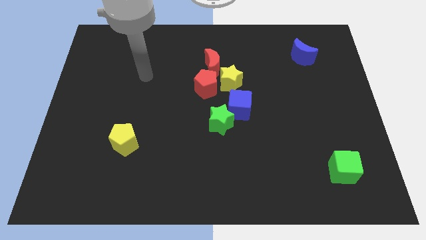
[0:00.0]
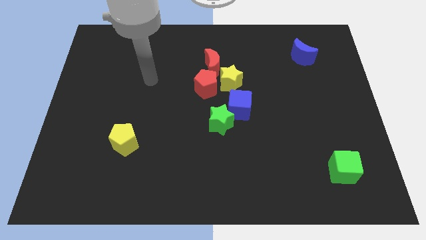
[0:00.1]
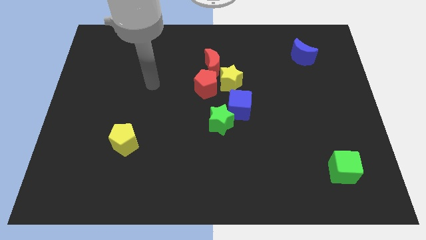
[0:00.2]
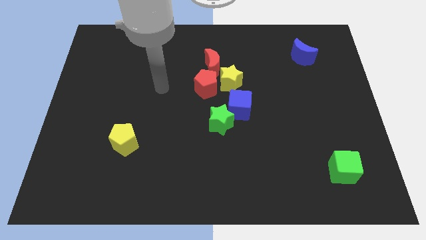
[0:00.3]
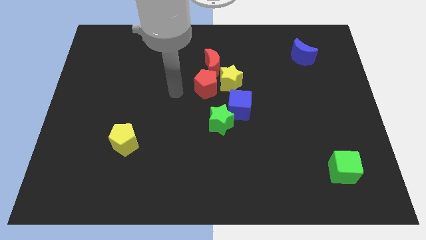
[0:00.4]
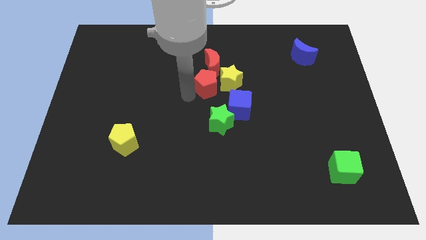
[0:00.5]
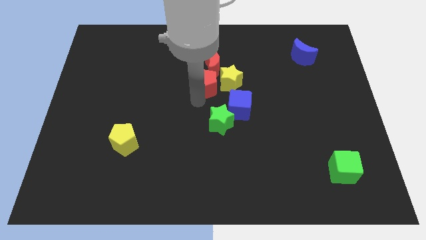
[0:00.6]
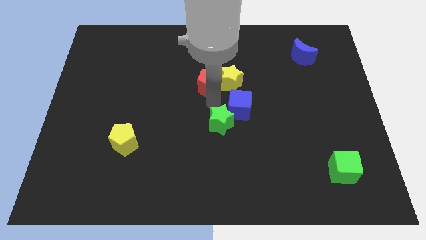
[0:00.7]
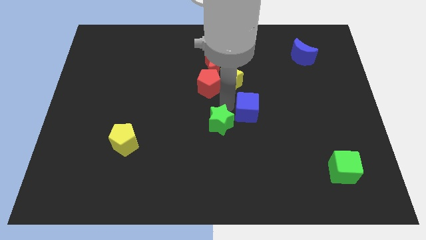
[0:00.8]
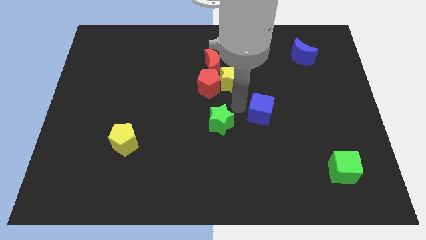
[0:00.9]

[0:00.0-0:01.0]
move the green star away from the blue cube

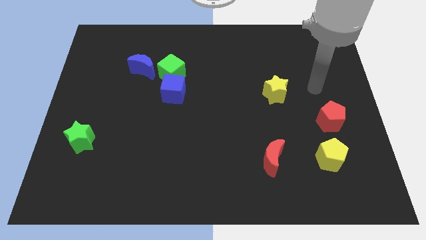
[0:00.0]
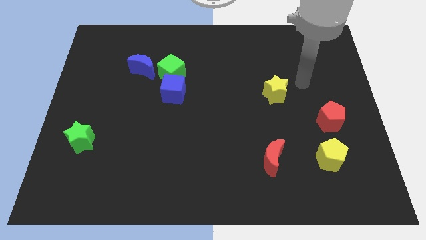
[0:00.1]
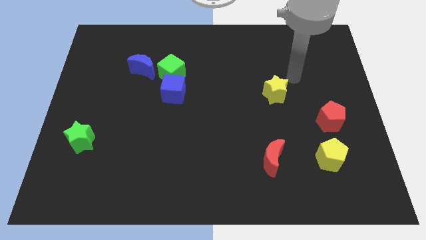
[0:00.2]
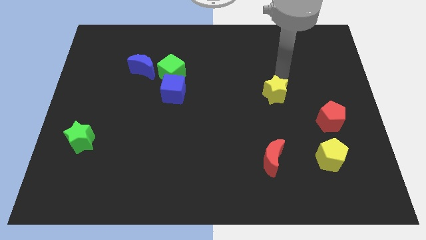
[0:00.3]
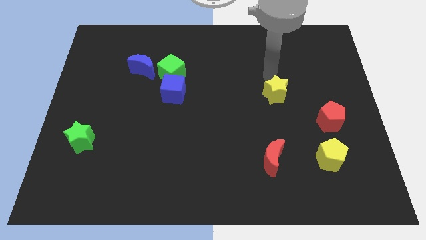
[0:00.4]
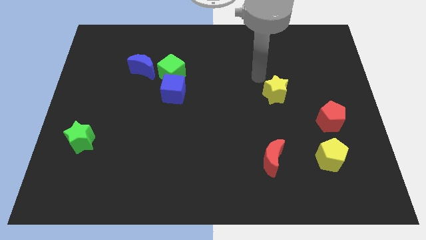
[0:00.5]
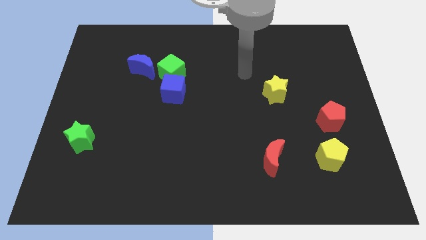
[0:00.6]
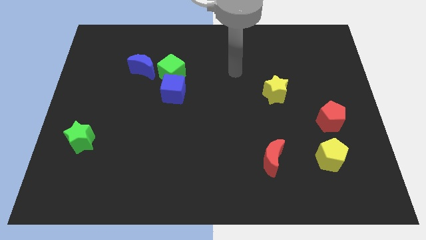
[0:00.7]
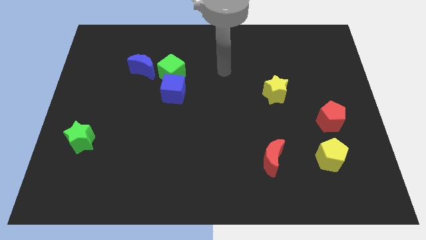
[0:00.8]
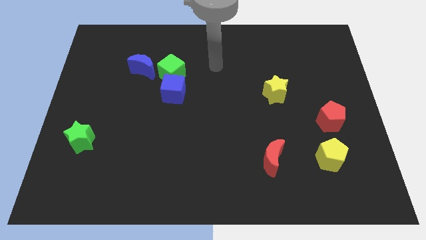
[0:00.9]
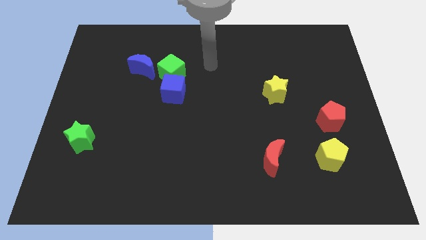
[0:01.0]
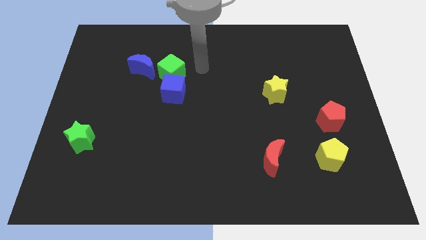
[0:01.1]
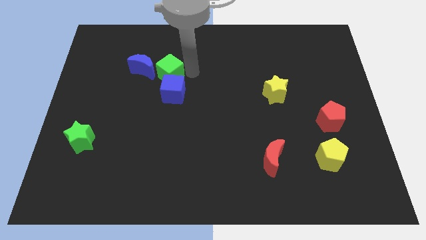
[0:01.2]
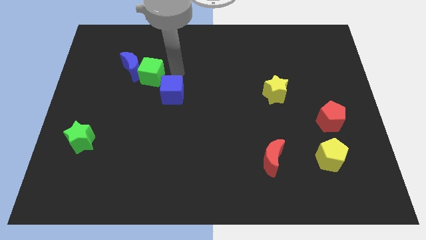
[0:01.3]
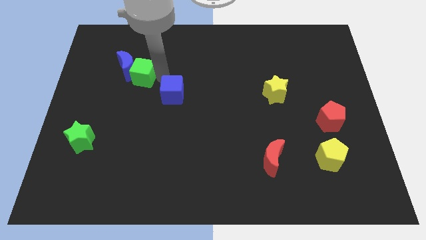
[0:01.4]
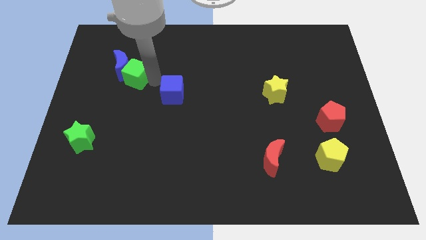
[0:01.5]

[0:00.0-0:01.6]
pull the blue cube apart from the green cube

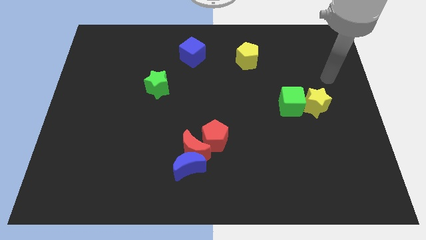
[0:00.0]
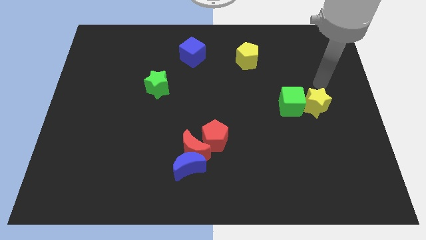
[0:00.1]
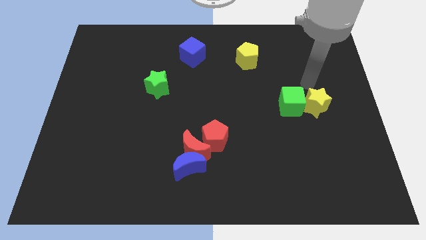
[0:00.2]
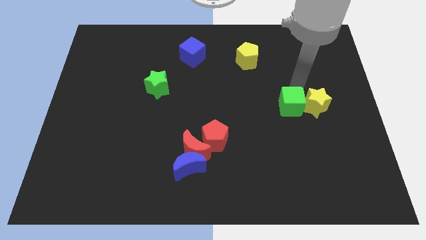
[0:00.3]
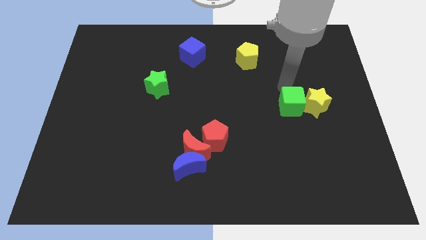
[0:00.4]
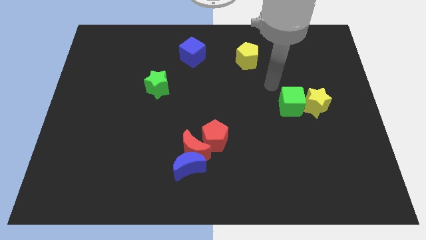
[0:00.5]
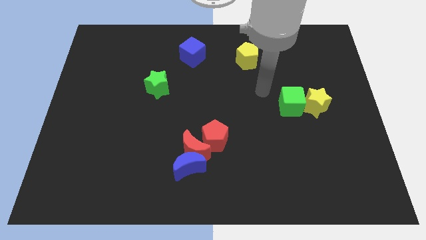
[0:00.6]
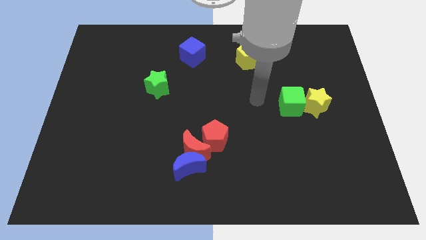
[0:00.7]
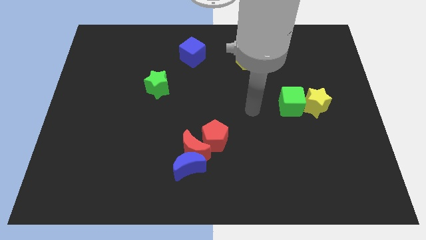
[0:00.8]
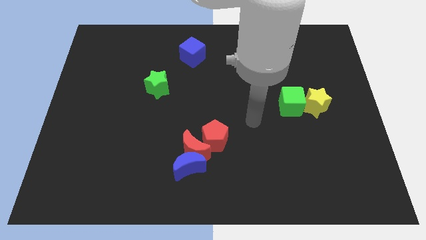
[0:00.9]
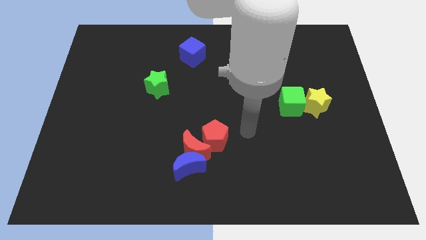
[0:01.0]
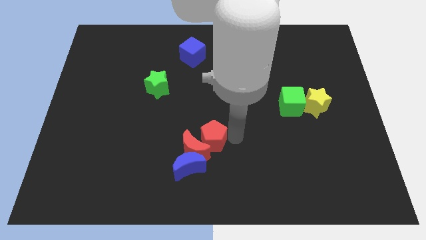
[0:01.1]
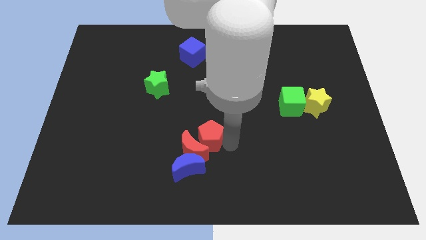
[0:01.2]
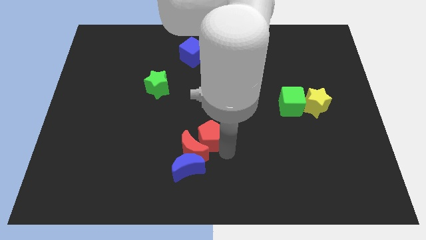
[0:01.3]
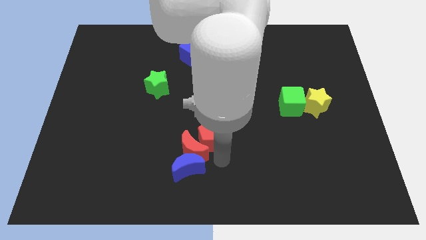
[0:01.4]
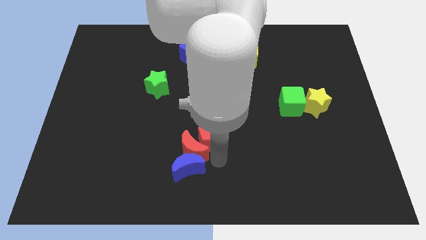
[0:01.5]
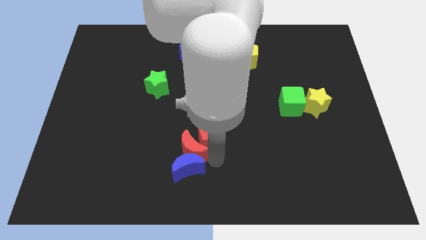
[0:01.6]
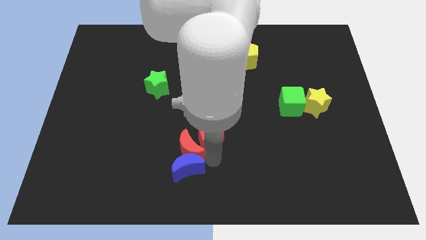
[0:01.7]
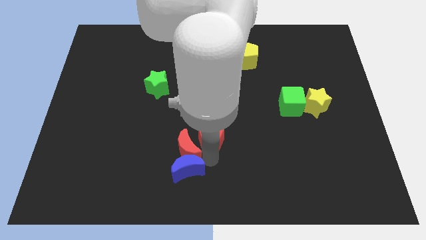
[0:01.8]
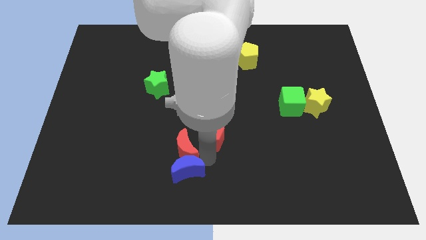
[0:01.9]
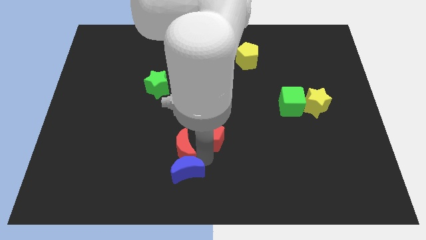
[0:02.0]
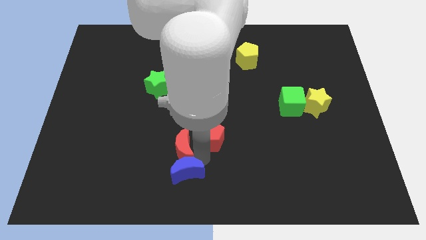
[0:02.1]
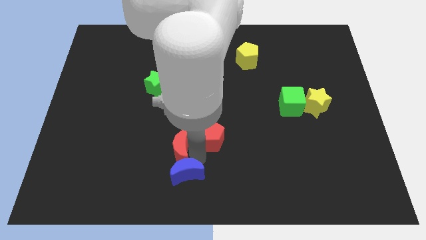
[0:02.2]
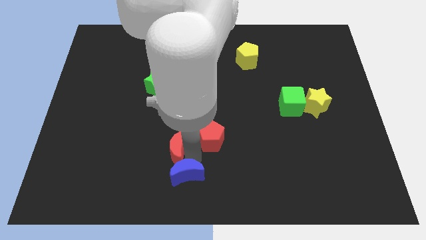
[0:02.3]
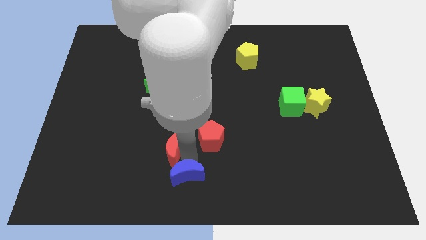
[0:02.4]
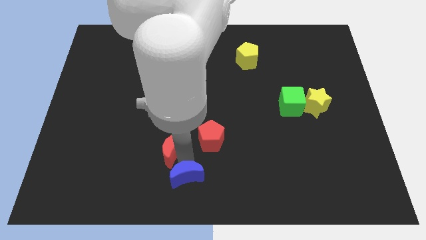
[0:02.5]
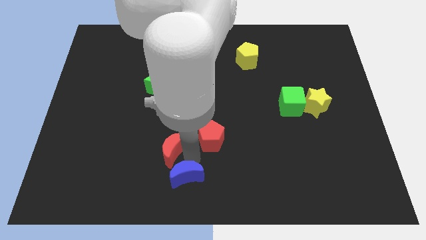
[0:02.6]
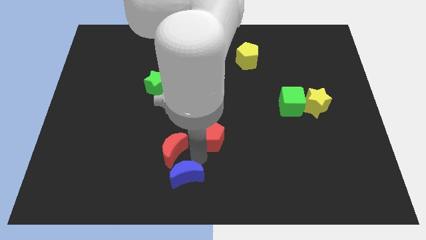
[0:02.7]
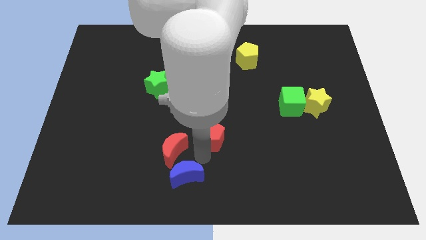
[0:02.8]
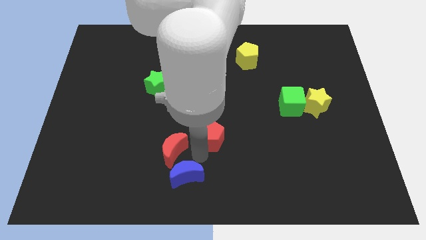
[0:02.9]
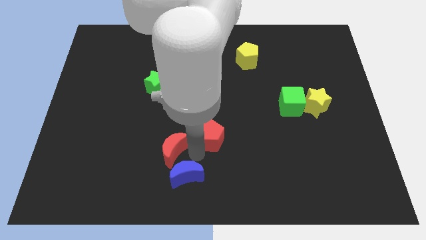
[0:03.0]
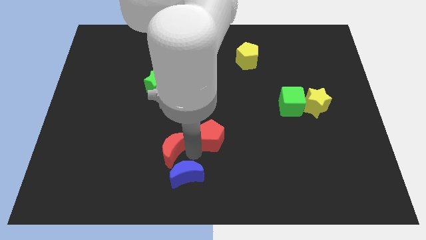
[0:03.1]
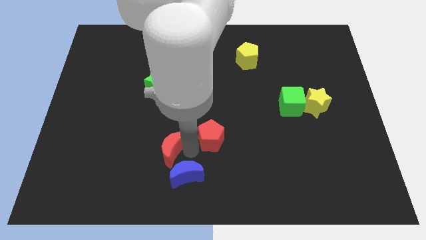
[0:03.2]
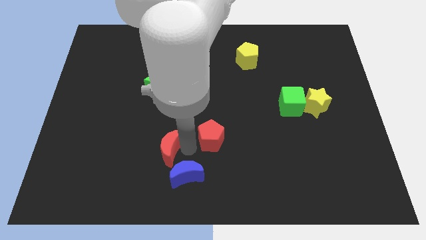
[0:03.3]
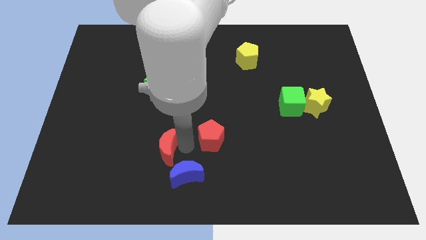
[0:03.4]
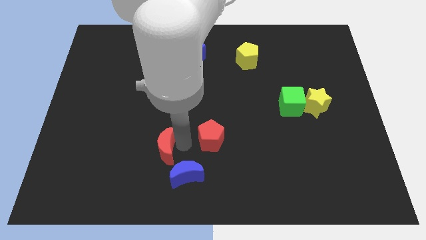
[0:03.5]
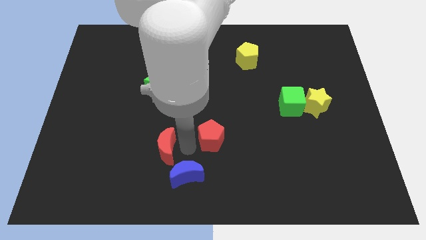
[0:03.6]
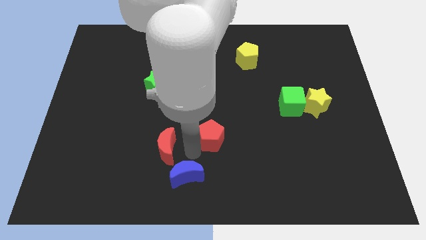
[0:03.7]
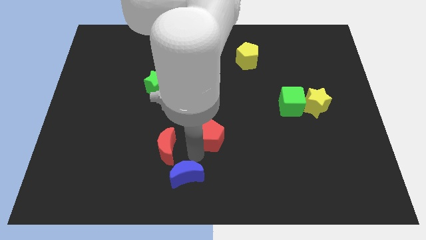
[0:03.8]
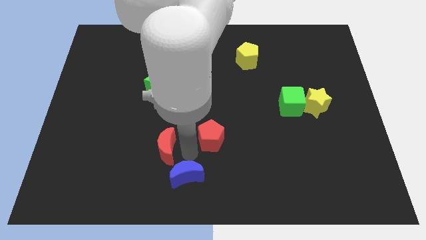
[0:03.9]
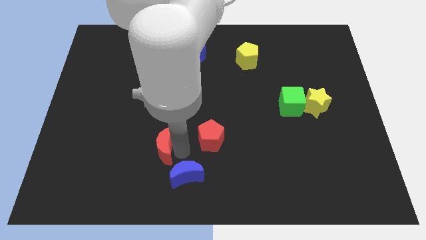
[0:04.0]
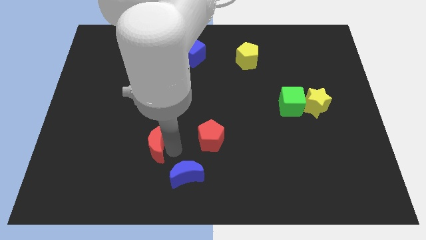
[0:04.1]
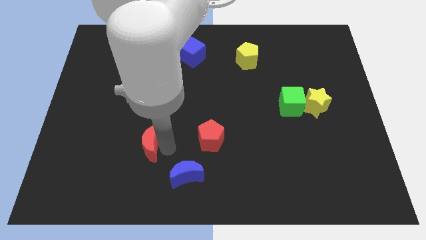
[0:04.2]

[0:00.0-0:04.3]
pull the red moon apart from the blue moon and red pentagon

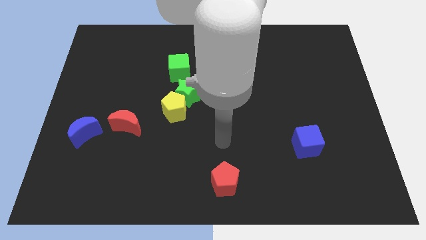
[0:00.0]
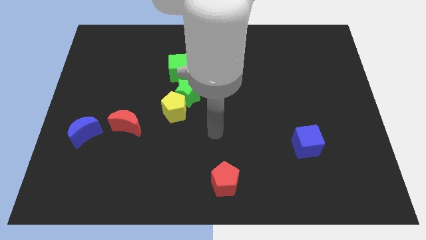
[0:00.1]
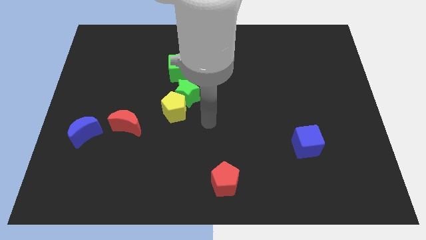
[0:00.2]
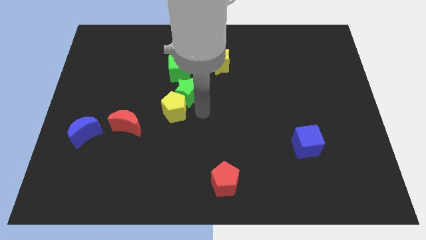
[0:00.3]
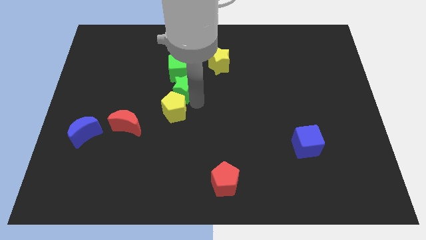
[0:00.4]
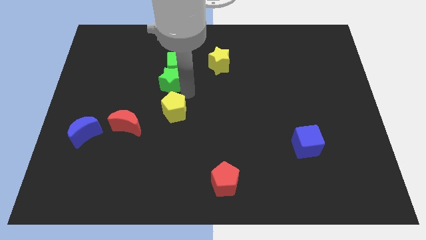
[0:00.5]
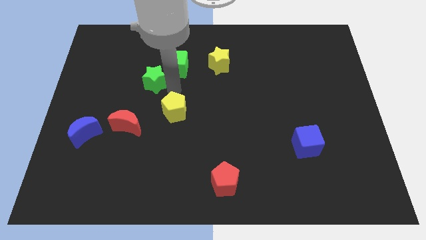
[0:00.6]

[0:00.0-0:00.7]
separate the yellow pentagon from the green star

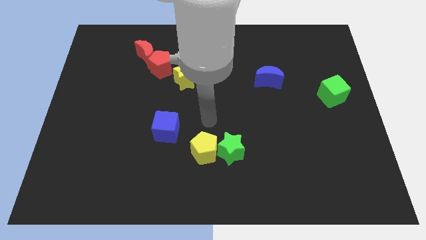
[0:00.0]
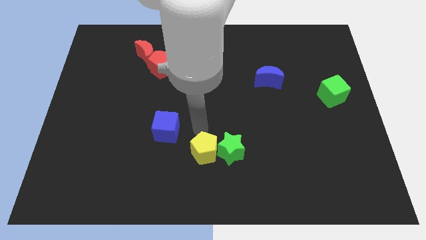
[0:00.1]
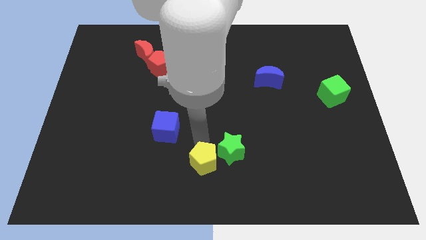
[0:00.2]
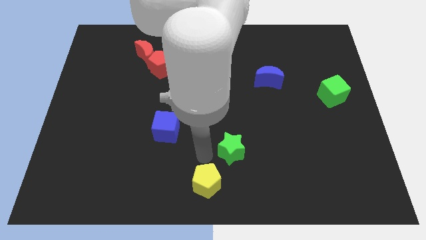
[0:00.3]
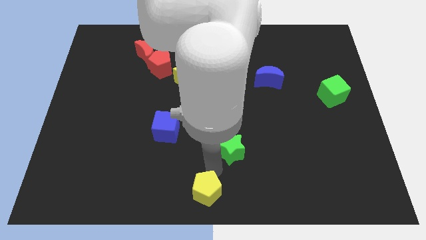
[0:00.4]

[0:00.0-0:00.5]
pull the green star apart from the yellow pentagon

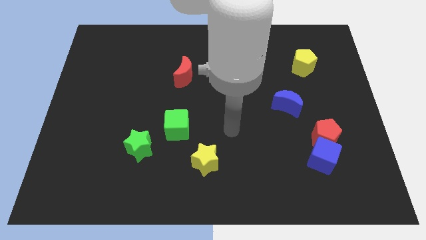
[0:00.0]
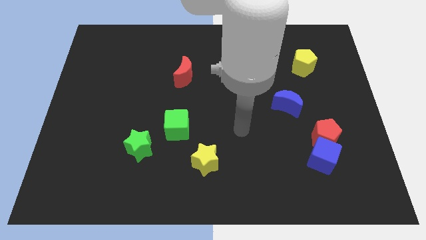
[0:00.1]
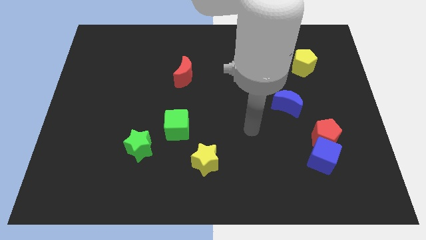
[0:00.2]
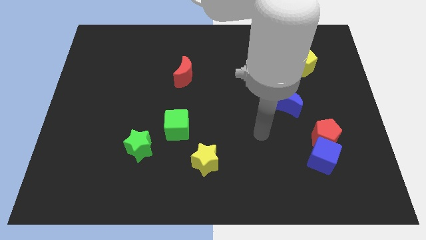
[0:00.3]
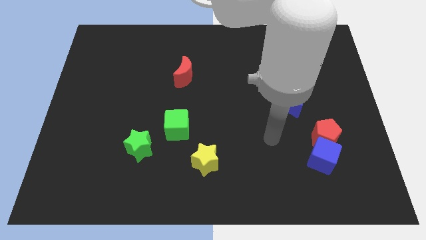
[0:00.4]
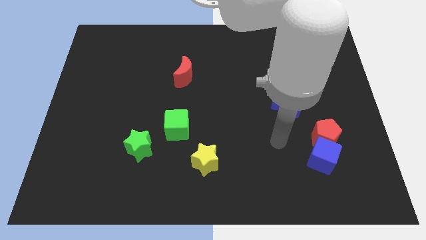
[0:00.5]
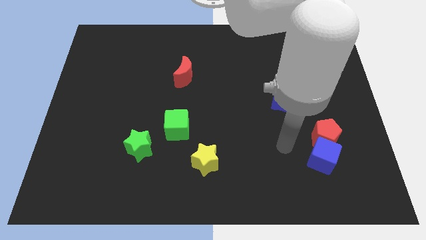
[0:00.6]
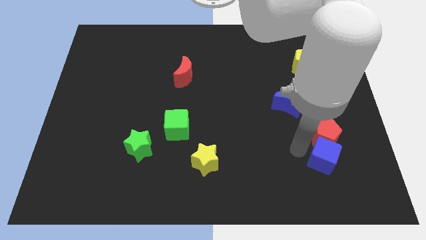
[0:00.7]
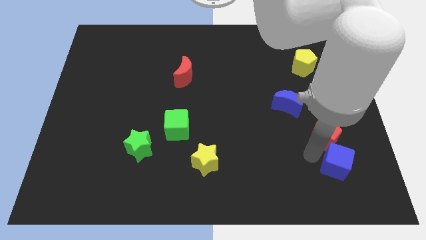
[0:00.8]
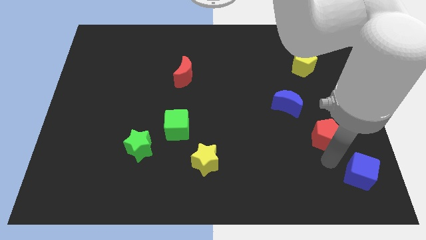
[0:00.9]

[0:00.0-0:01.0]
move the red pentagon away from the blue cube

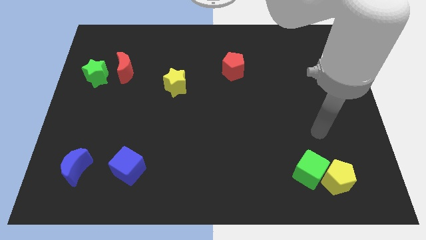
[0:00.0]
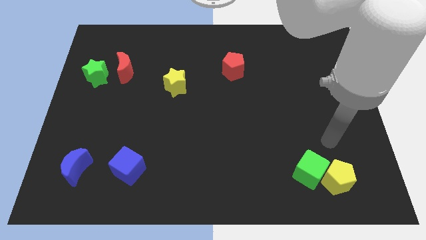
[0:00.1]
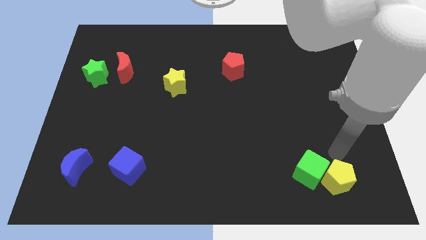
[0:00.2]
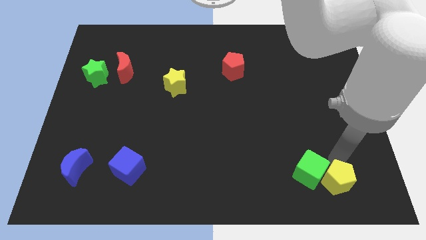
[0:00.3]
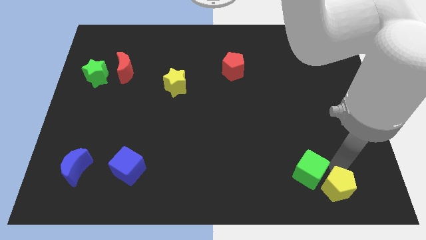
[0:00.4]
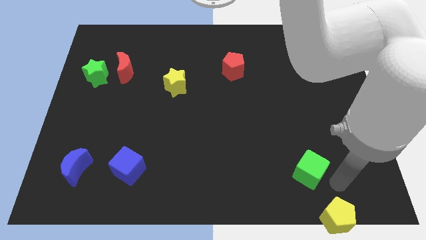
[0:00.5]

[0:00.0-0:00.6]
pull the green cube apart from the yellow pentagon
